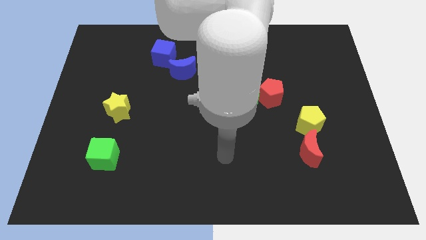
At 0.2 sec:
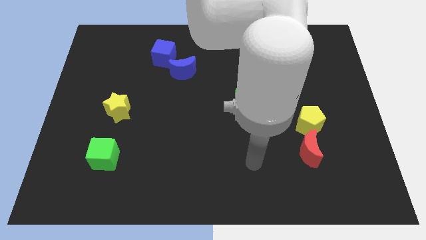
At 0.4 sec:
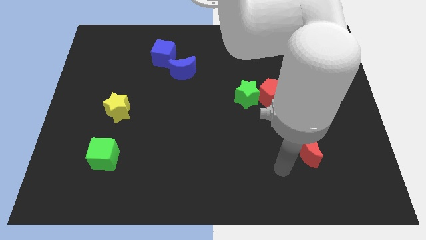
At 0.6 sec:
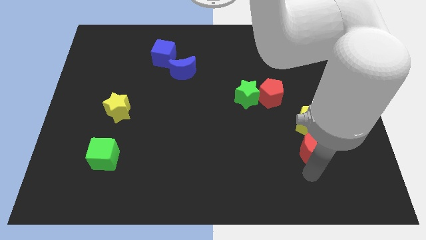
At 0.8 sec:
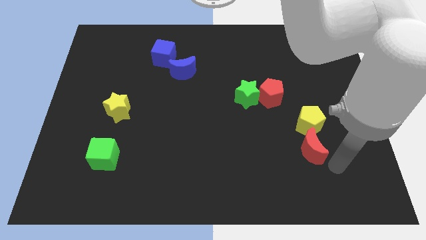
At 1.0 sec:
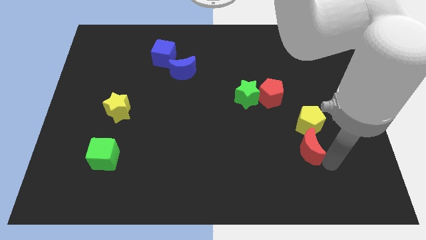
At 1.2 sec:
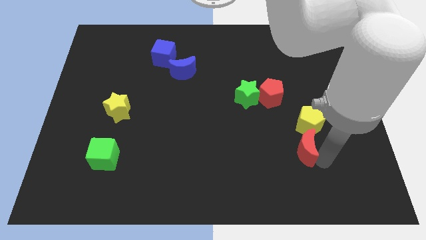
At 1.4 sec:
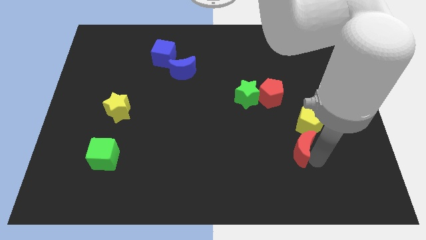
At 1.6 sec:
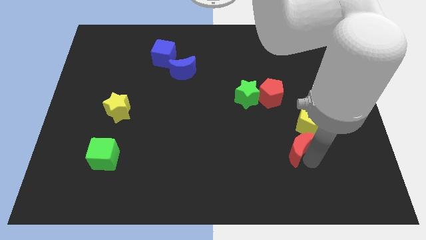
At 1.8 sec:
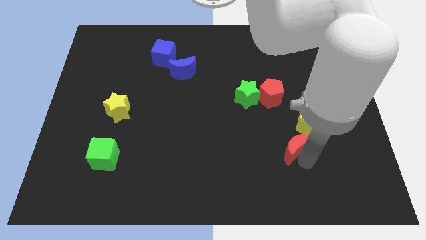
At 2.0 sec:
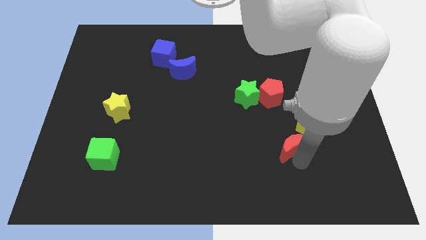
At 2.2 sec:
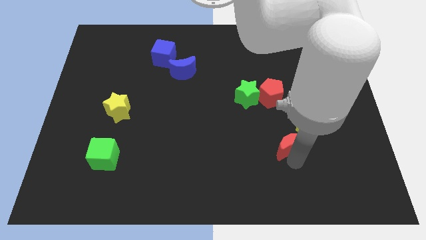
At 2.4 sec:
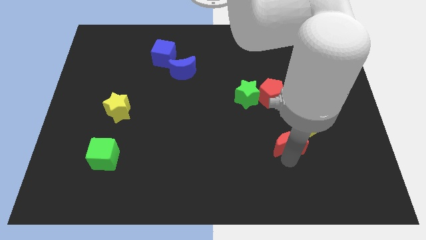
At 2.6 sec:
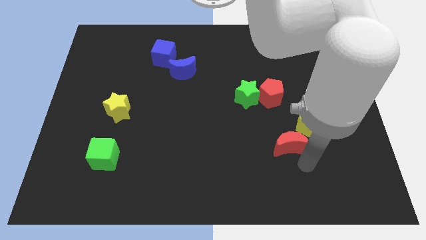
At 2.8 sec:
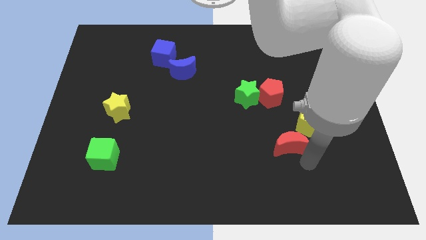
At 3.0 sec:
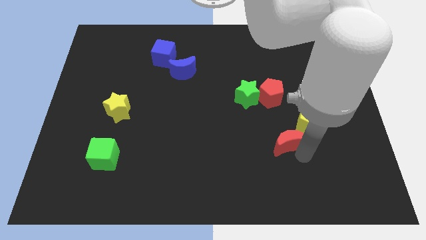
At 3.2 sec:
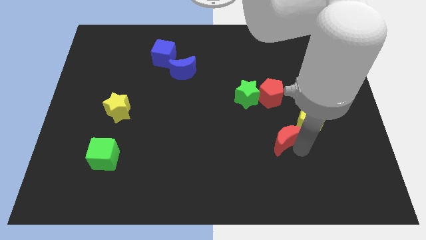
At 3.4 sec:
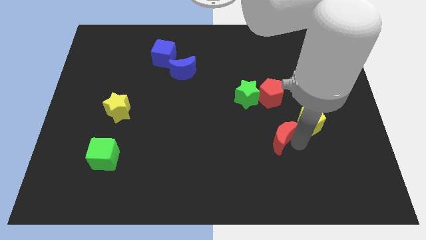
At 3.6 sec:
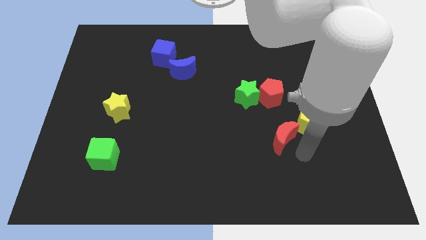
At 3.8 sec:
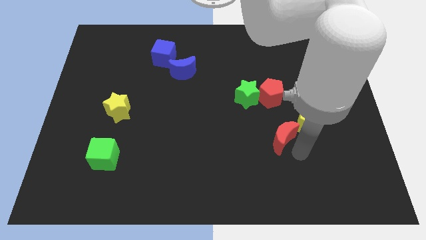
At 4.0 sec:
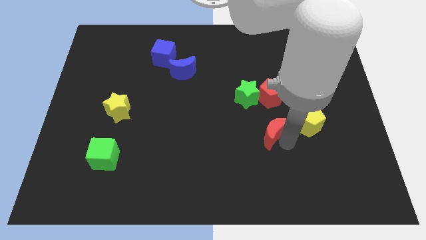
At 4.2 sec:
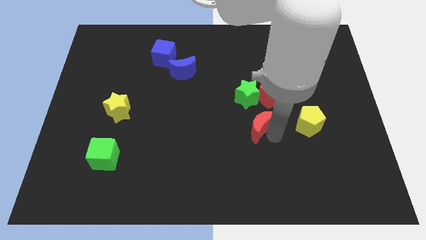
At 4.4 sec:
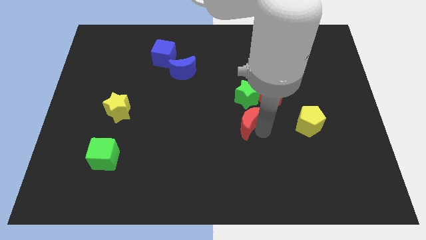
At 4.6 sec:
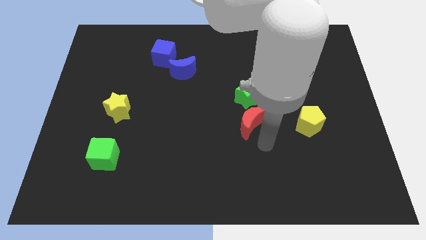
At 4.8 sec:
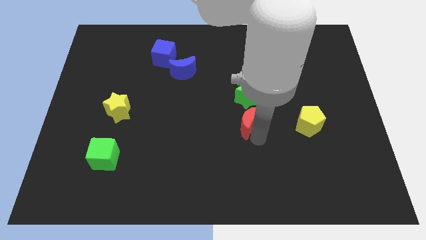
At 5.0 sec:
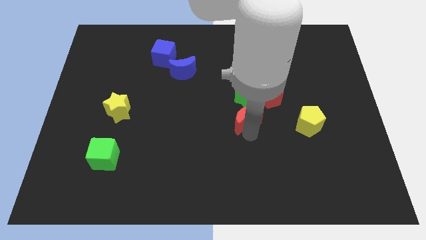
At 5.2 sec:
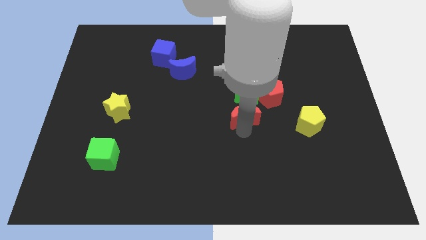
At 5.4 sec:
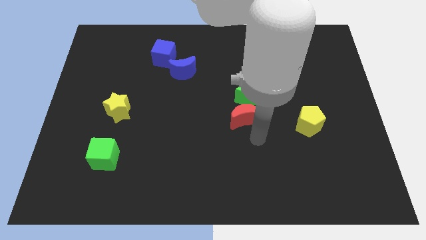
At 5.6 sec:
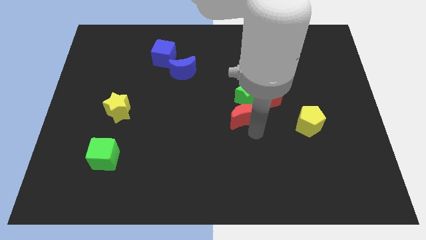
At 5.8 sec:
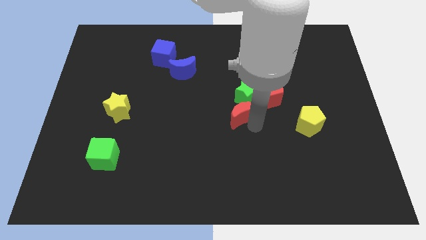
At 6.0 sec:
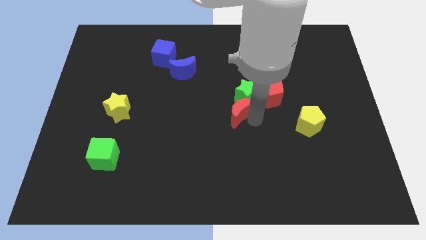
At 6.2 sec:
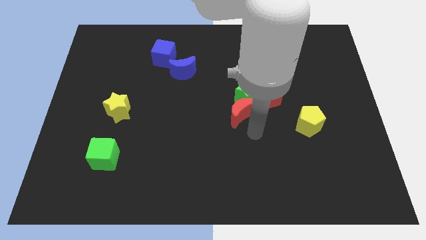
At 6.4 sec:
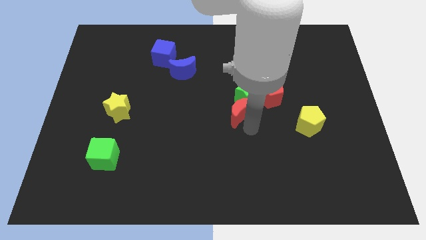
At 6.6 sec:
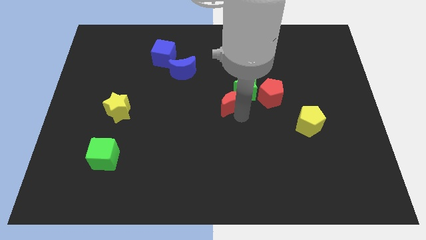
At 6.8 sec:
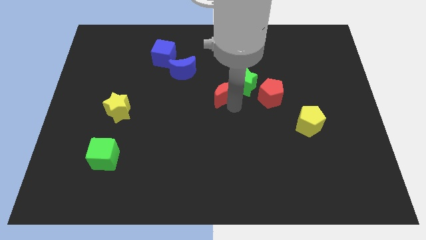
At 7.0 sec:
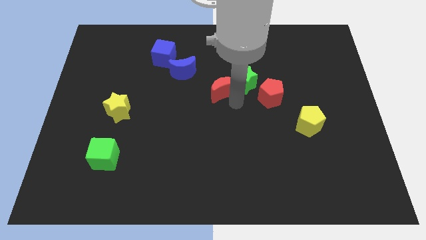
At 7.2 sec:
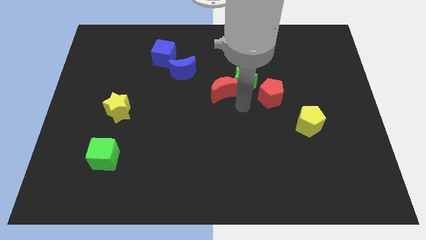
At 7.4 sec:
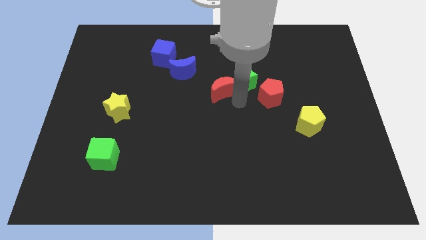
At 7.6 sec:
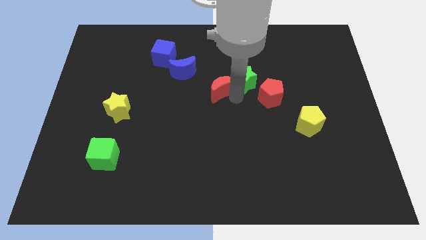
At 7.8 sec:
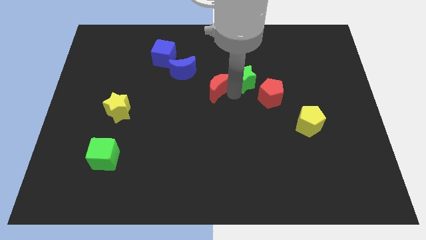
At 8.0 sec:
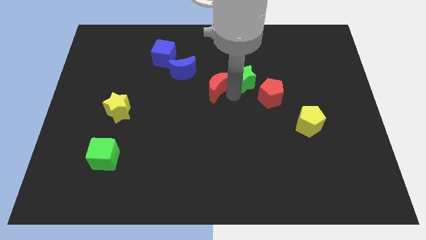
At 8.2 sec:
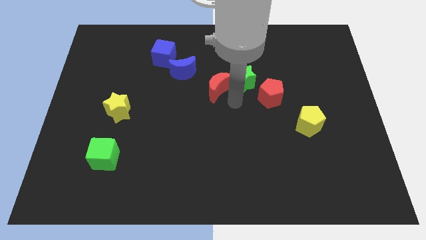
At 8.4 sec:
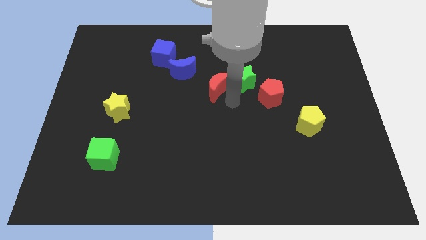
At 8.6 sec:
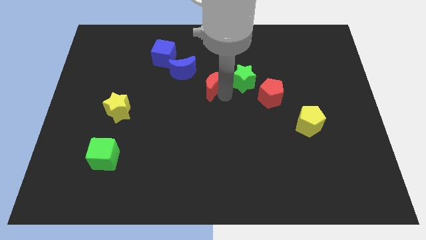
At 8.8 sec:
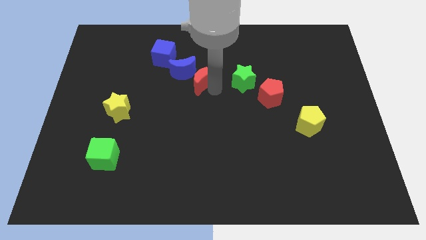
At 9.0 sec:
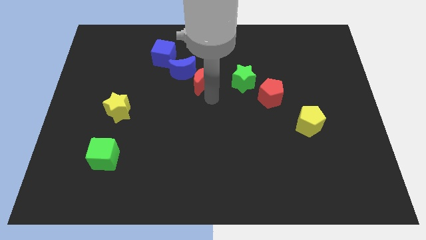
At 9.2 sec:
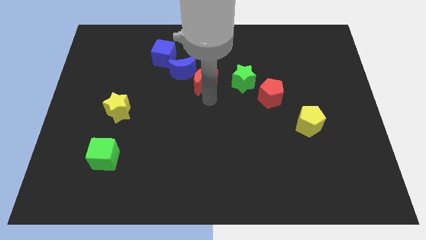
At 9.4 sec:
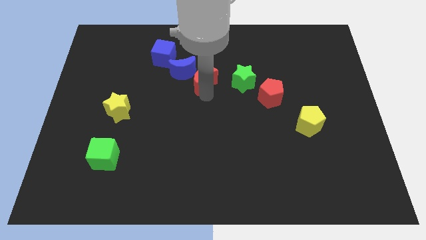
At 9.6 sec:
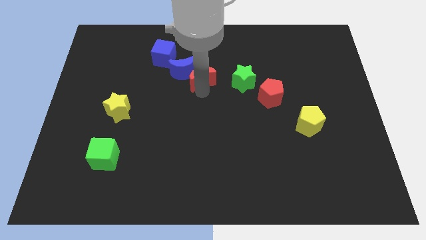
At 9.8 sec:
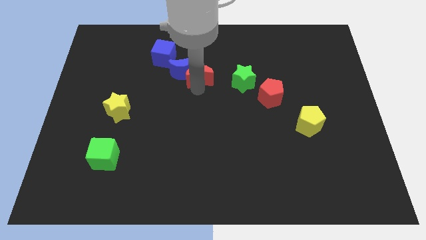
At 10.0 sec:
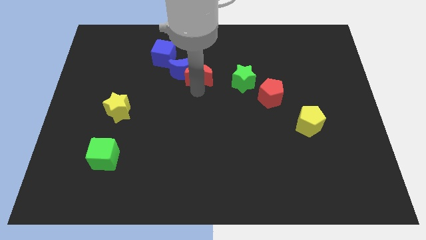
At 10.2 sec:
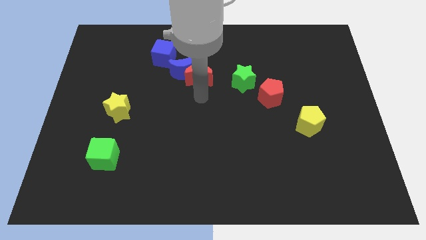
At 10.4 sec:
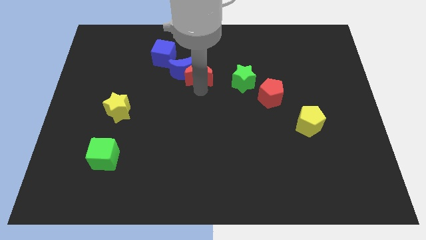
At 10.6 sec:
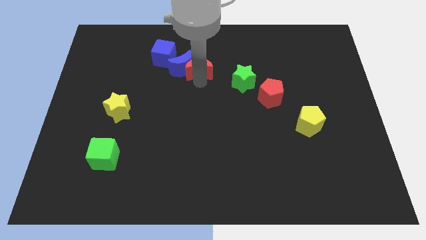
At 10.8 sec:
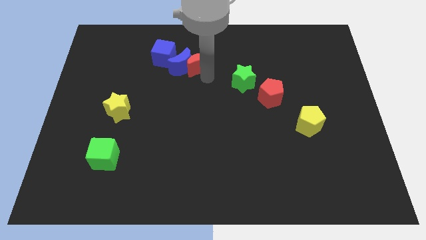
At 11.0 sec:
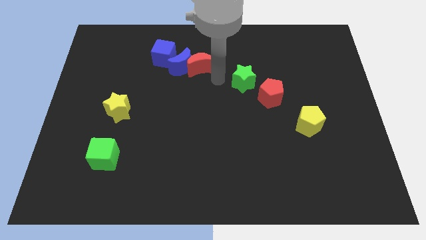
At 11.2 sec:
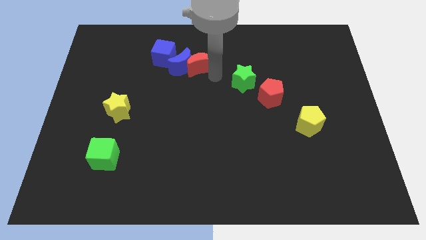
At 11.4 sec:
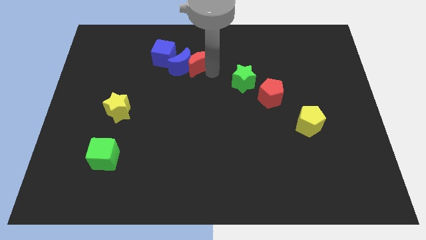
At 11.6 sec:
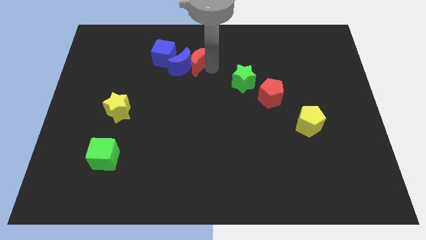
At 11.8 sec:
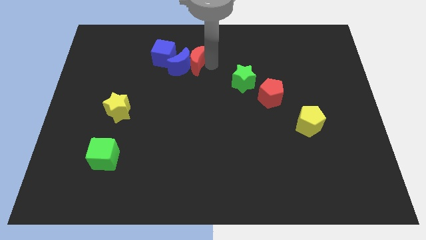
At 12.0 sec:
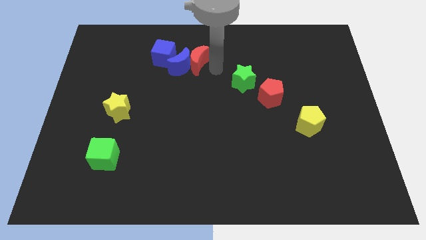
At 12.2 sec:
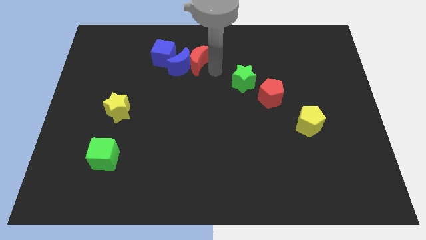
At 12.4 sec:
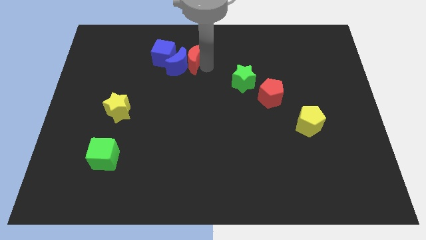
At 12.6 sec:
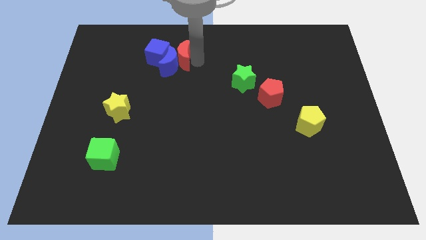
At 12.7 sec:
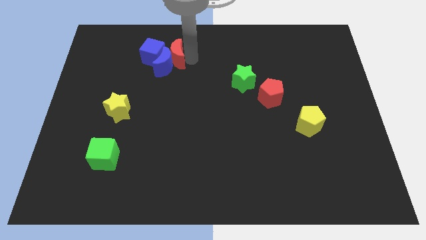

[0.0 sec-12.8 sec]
slide the red moon close to the blue cube
